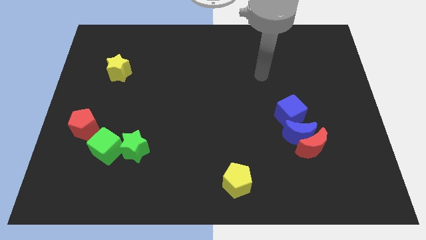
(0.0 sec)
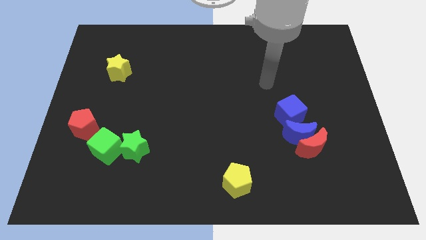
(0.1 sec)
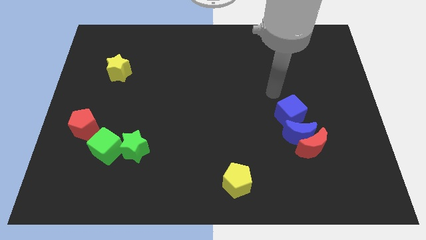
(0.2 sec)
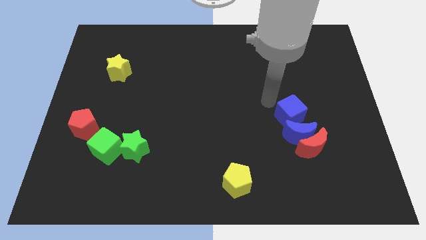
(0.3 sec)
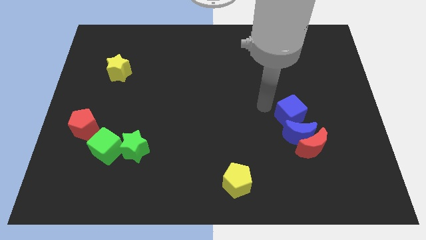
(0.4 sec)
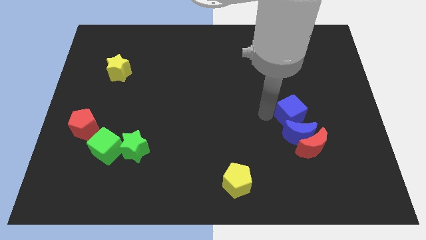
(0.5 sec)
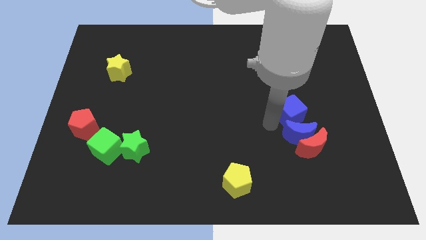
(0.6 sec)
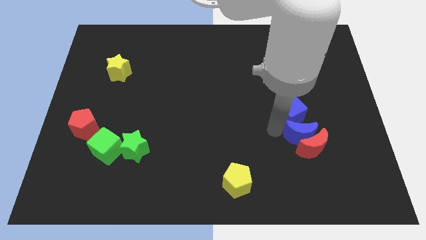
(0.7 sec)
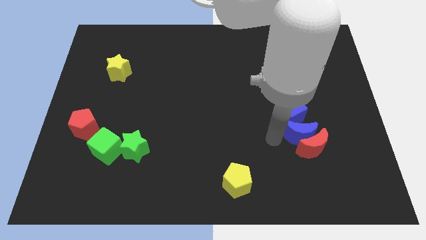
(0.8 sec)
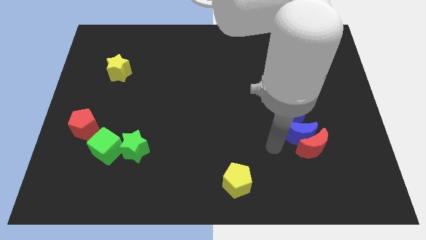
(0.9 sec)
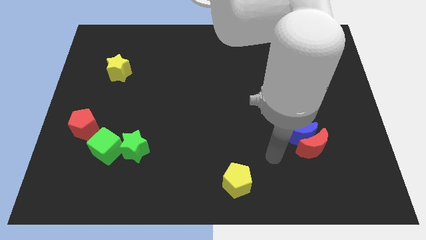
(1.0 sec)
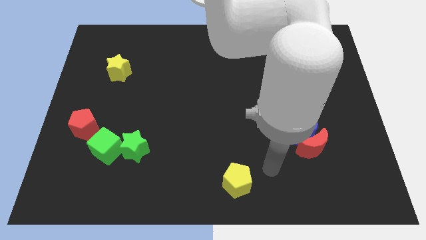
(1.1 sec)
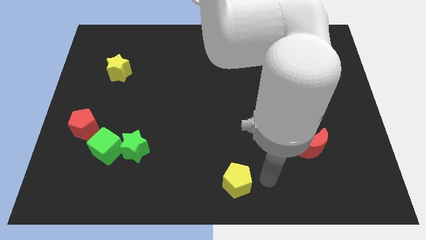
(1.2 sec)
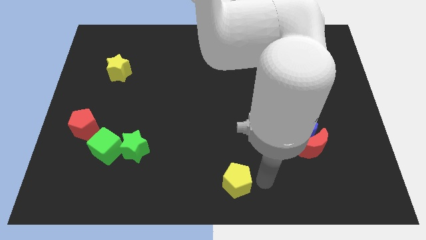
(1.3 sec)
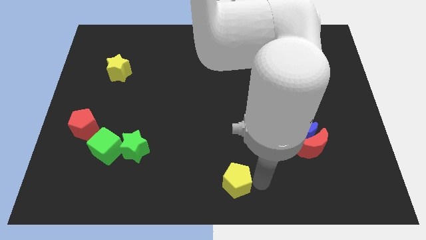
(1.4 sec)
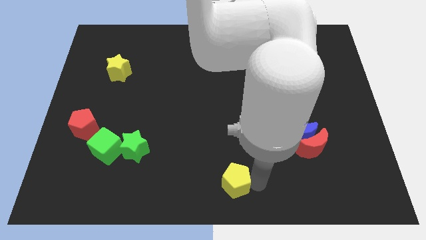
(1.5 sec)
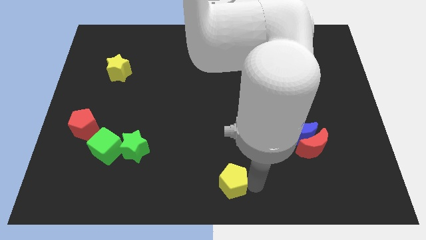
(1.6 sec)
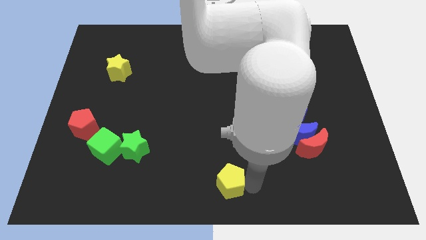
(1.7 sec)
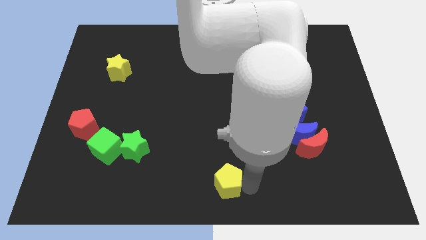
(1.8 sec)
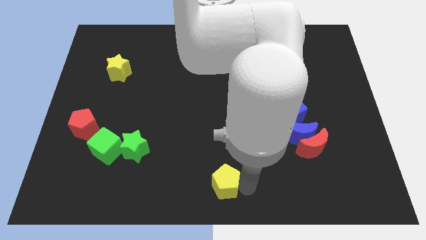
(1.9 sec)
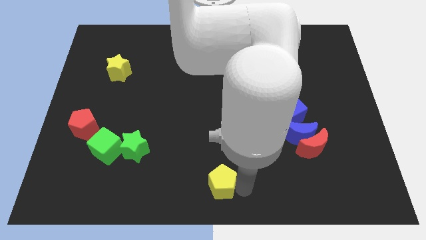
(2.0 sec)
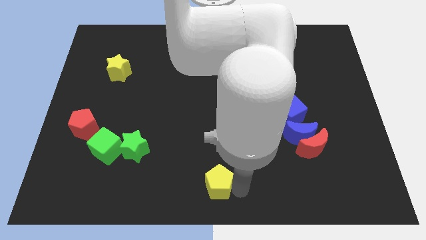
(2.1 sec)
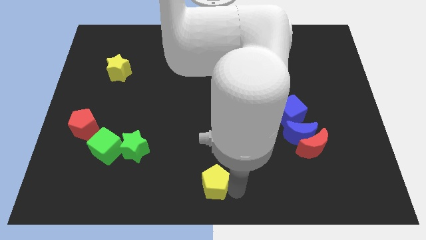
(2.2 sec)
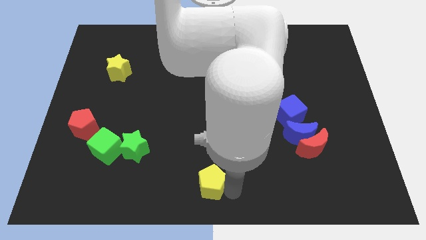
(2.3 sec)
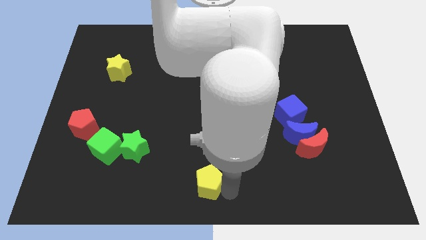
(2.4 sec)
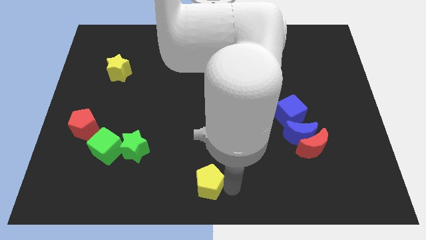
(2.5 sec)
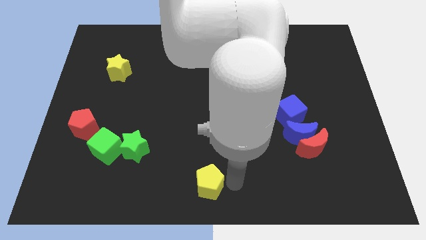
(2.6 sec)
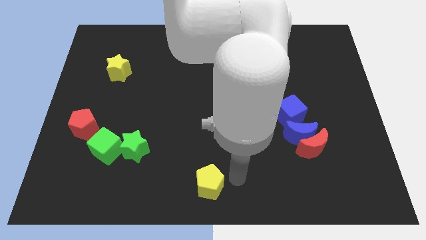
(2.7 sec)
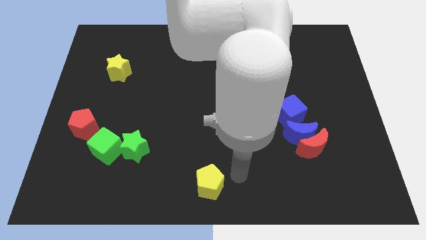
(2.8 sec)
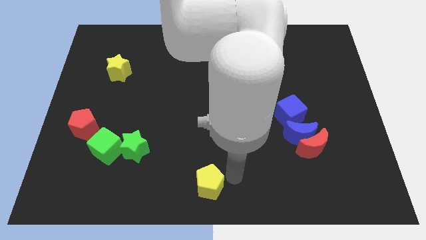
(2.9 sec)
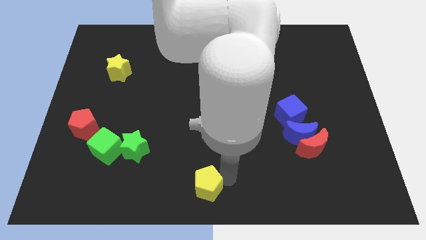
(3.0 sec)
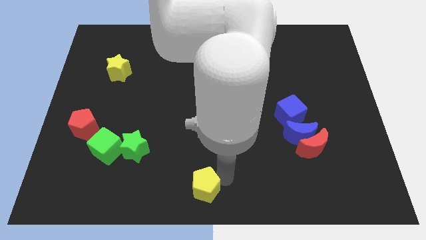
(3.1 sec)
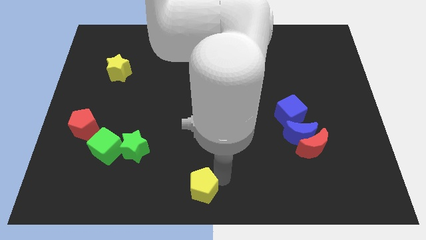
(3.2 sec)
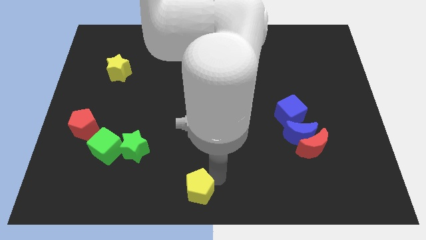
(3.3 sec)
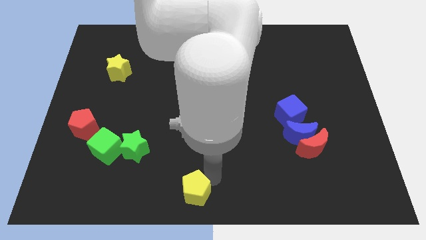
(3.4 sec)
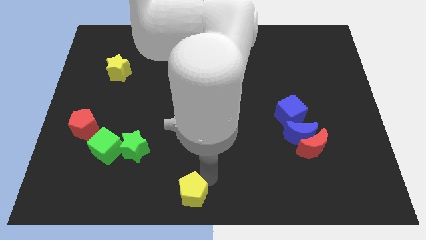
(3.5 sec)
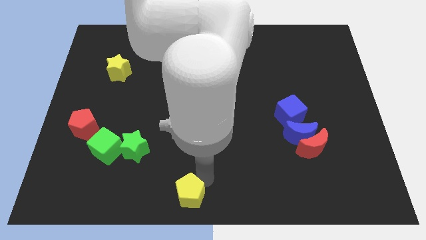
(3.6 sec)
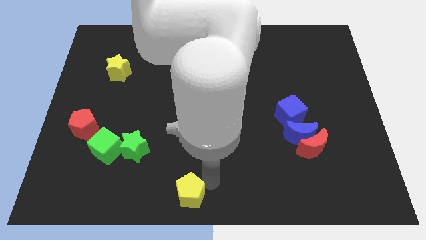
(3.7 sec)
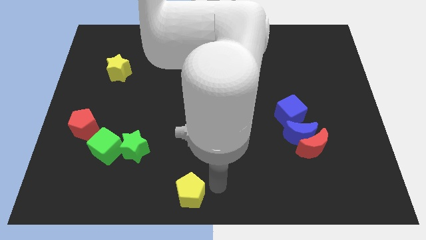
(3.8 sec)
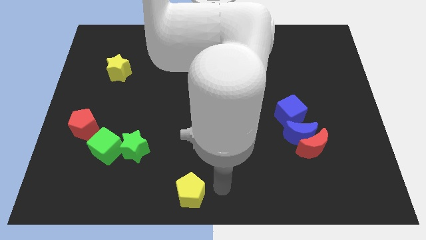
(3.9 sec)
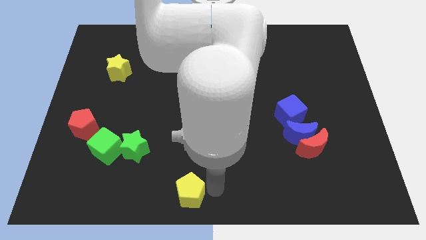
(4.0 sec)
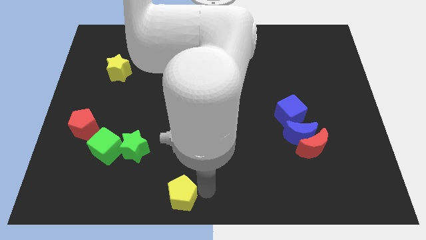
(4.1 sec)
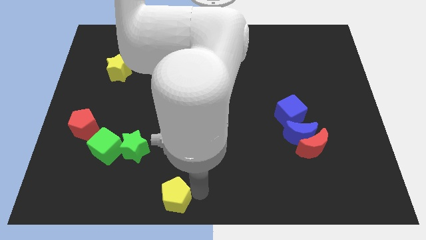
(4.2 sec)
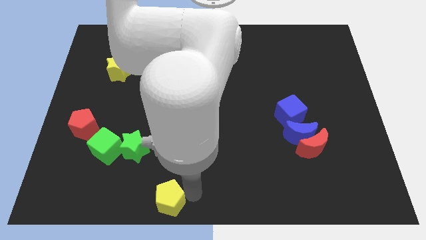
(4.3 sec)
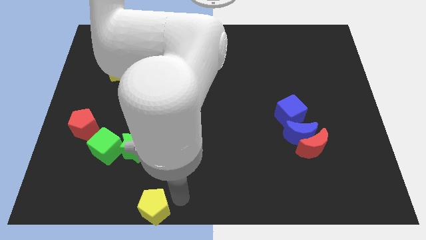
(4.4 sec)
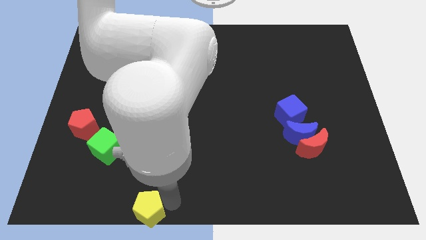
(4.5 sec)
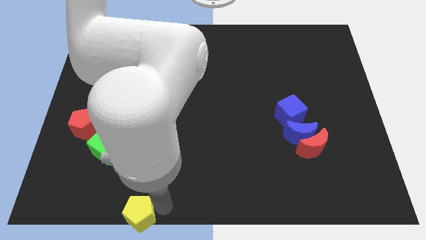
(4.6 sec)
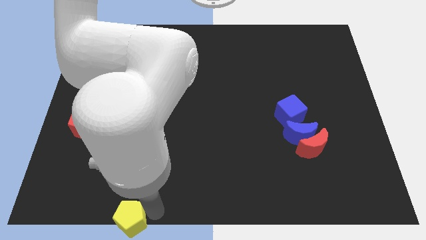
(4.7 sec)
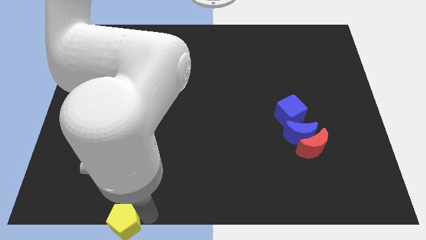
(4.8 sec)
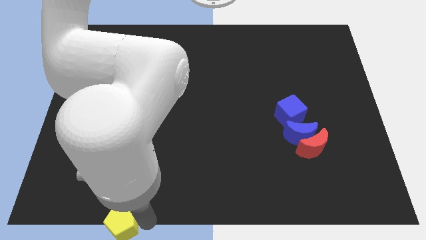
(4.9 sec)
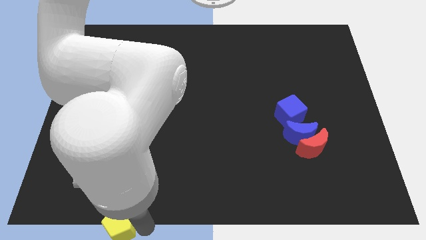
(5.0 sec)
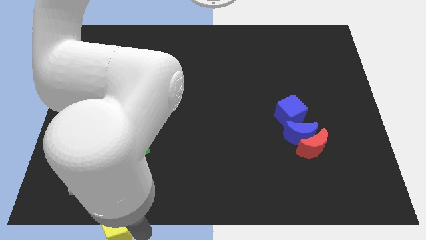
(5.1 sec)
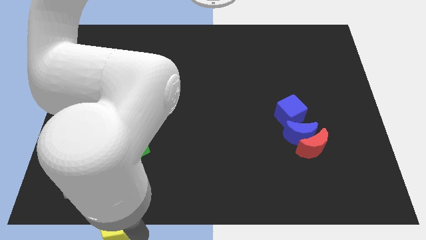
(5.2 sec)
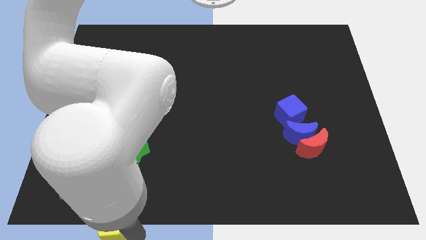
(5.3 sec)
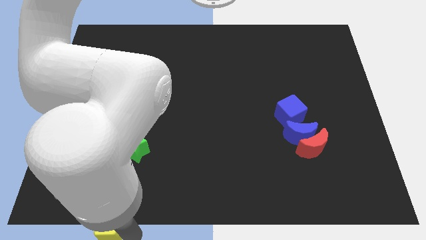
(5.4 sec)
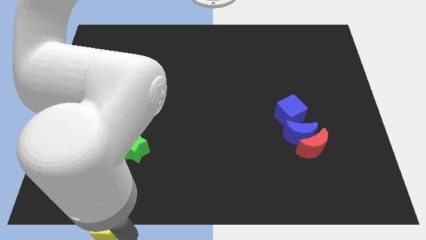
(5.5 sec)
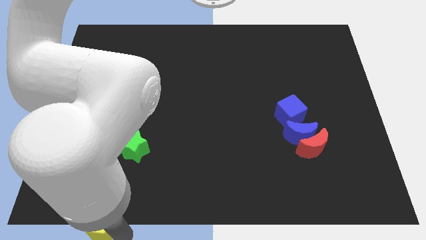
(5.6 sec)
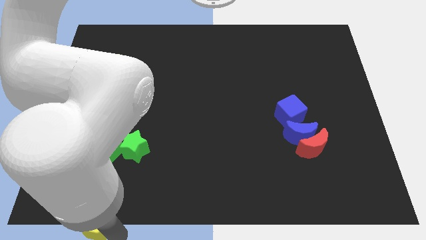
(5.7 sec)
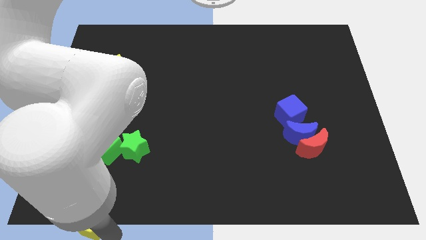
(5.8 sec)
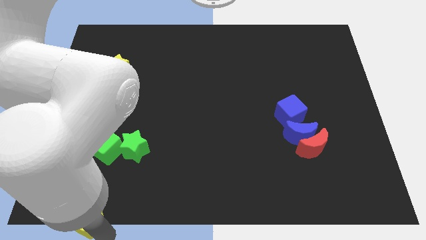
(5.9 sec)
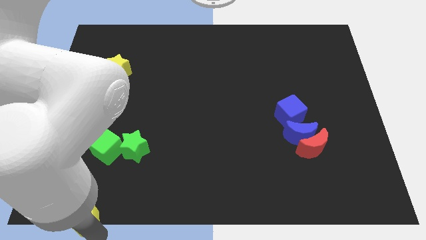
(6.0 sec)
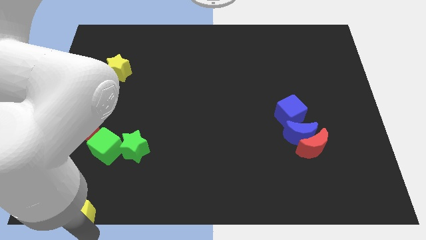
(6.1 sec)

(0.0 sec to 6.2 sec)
put the yellow pentagon to the lower left corner
